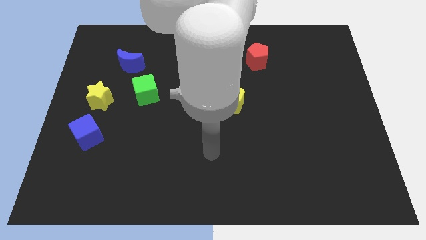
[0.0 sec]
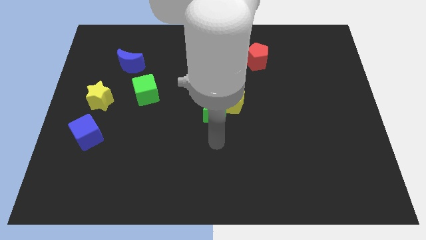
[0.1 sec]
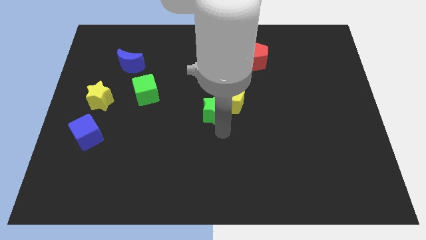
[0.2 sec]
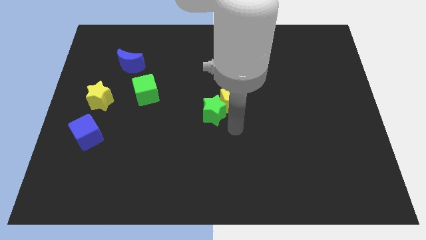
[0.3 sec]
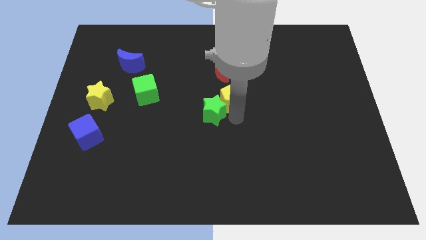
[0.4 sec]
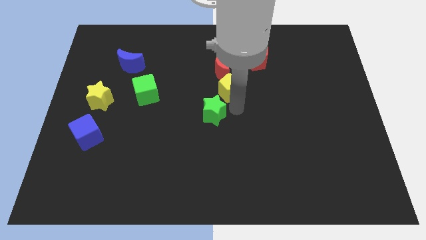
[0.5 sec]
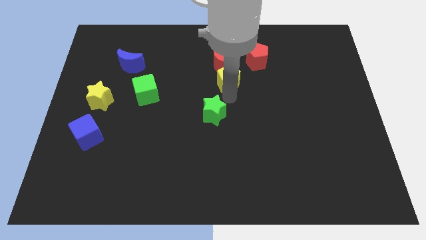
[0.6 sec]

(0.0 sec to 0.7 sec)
separate the green star from the yellow pentagon

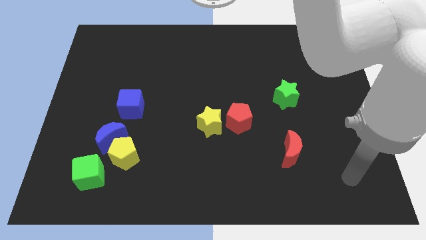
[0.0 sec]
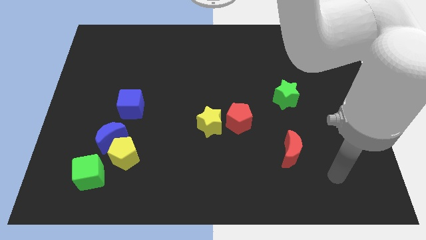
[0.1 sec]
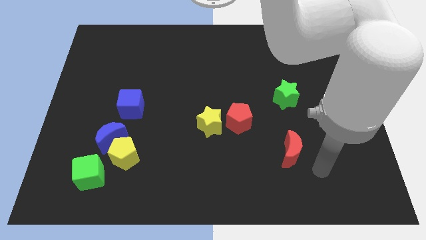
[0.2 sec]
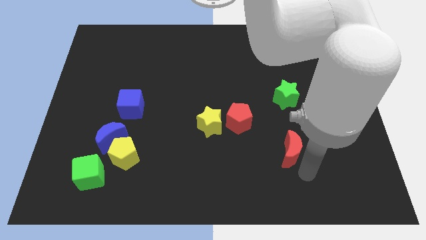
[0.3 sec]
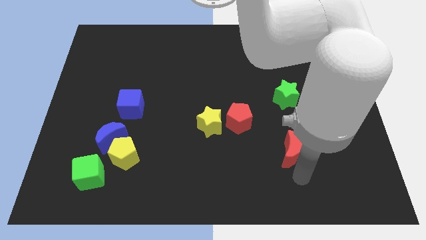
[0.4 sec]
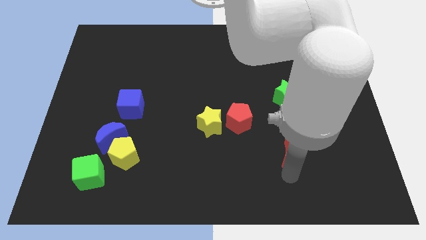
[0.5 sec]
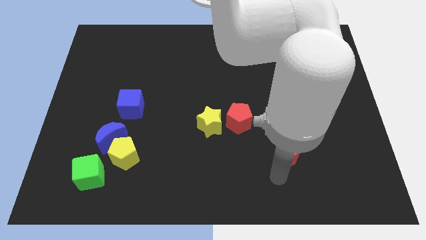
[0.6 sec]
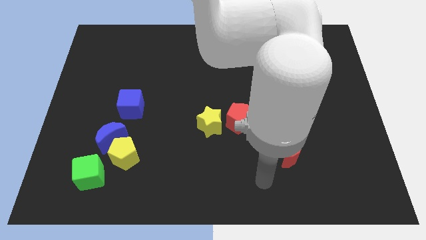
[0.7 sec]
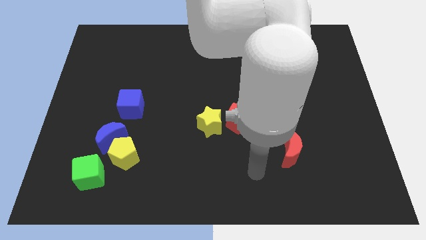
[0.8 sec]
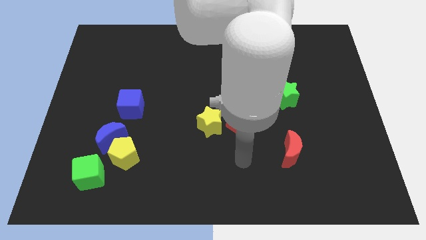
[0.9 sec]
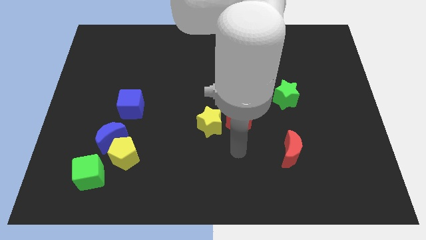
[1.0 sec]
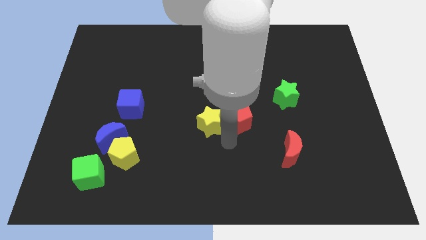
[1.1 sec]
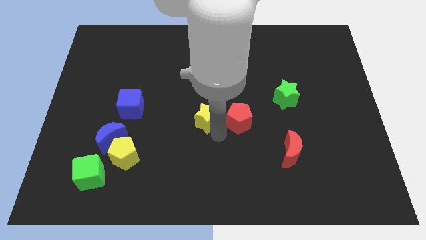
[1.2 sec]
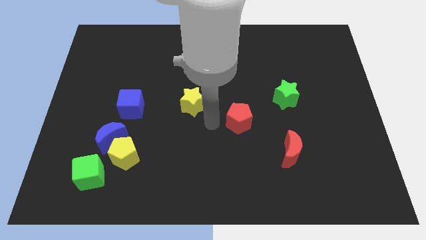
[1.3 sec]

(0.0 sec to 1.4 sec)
move the red pentagon away from the yellow star

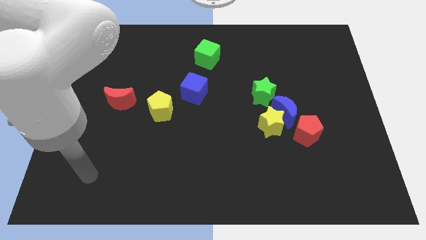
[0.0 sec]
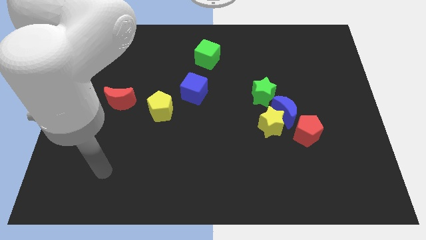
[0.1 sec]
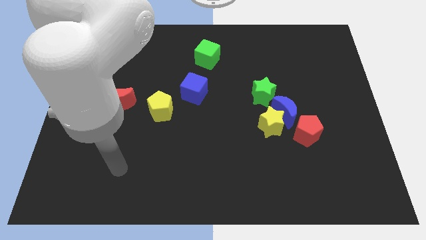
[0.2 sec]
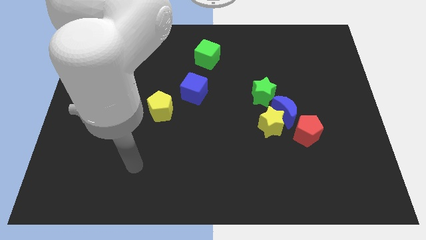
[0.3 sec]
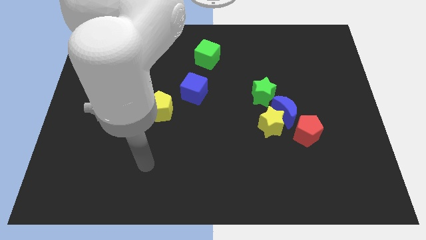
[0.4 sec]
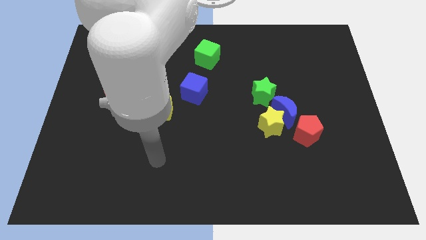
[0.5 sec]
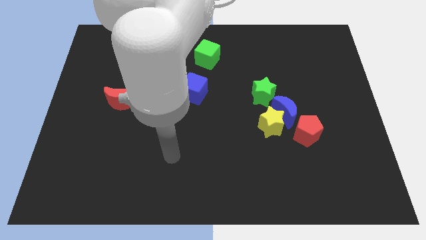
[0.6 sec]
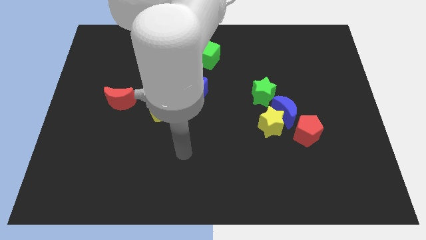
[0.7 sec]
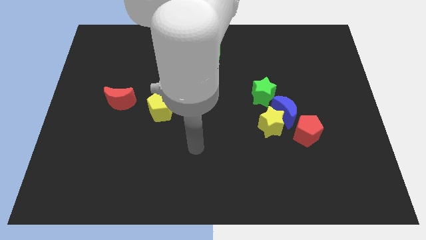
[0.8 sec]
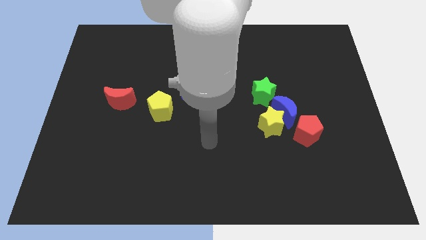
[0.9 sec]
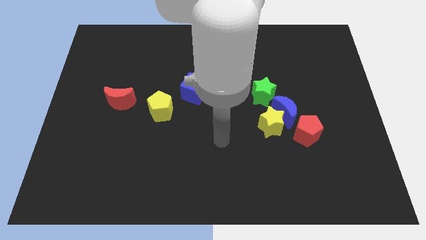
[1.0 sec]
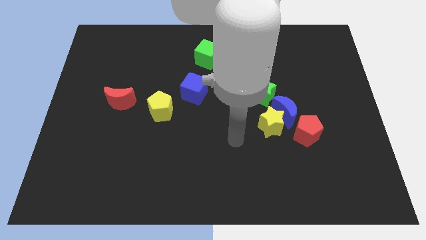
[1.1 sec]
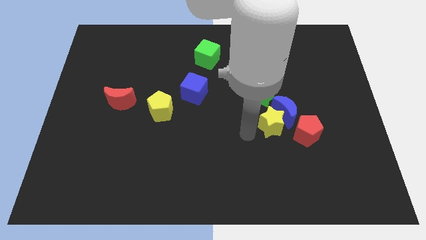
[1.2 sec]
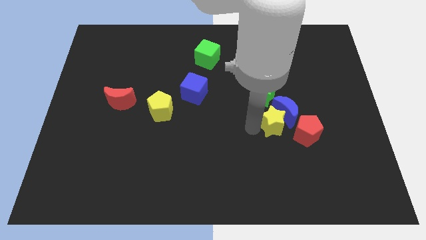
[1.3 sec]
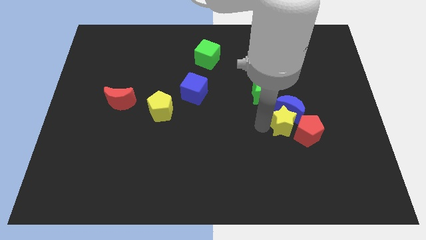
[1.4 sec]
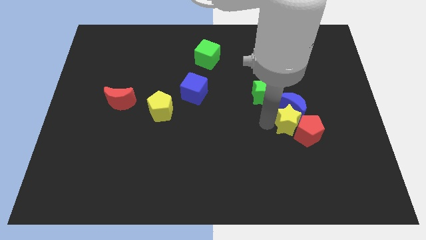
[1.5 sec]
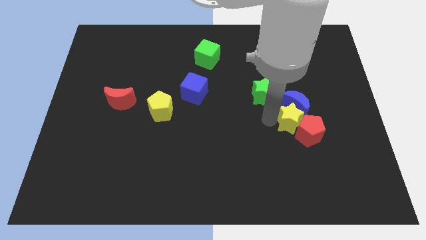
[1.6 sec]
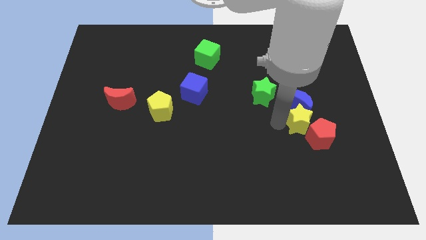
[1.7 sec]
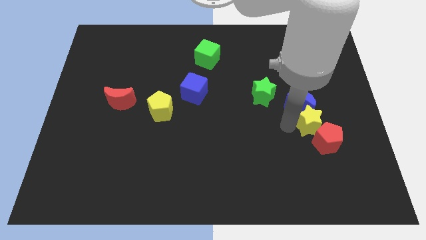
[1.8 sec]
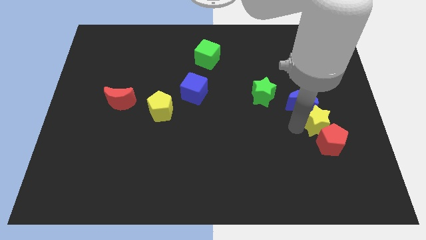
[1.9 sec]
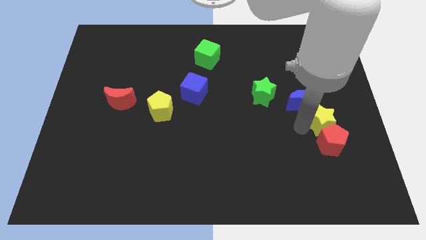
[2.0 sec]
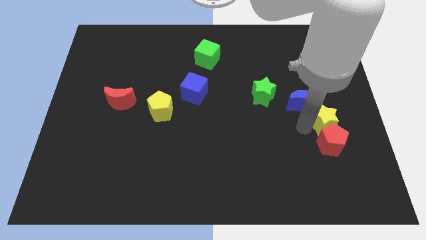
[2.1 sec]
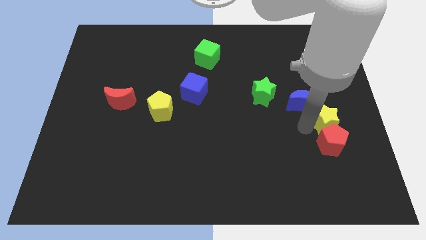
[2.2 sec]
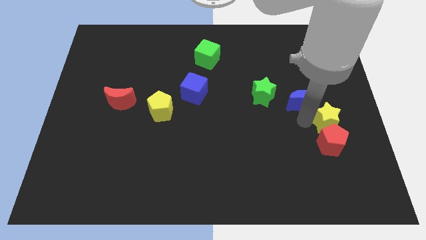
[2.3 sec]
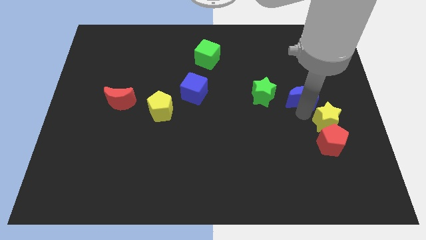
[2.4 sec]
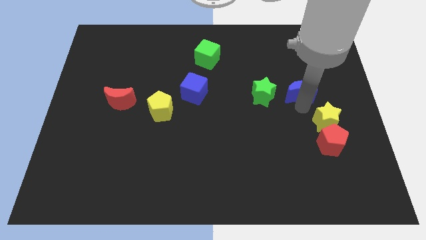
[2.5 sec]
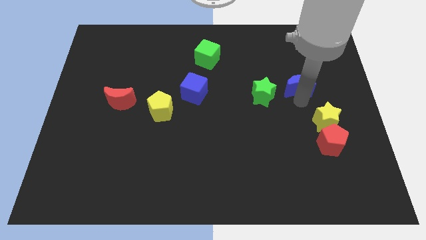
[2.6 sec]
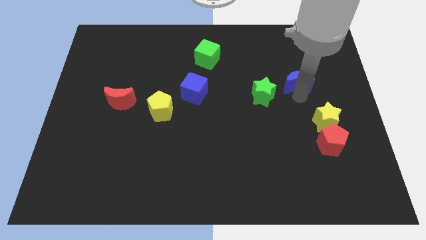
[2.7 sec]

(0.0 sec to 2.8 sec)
pull the blue moon apart from the clump

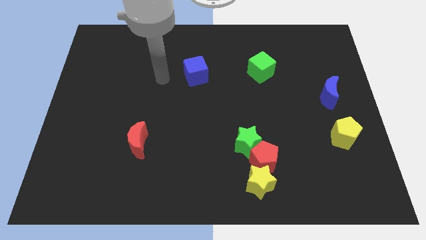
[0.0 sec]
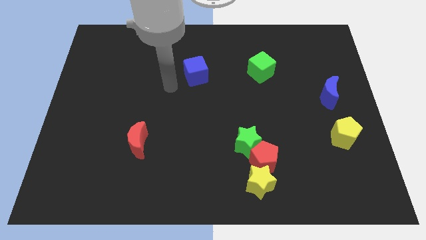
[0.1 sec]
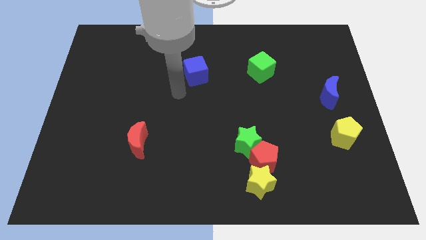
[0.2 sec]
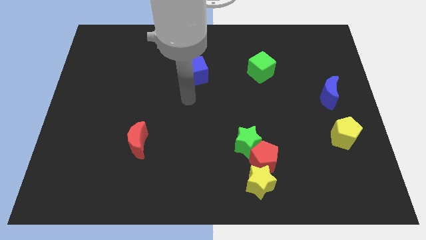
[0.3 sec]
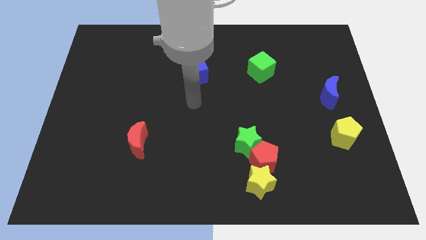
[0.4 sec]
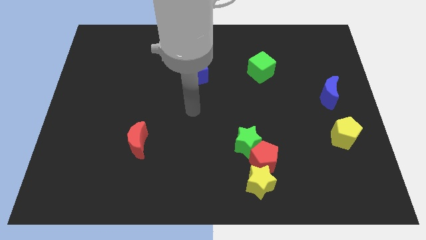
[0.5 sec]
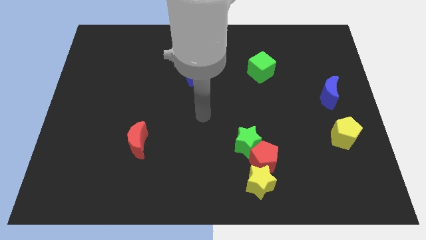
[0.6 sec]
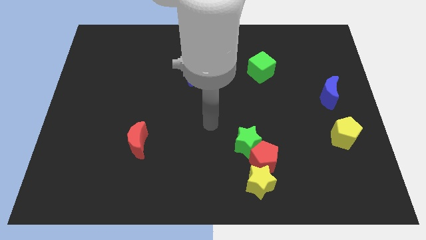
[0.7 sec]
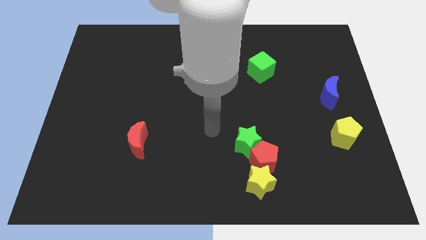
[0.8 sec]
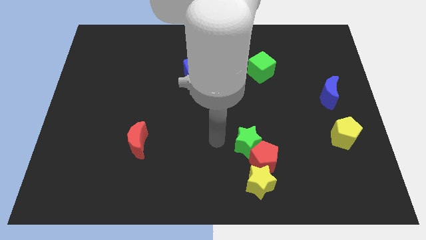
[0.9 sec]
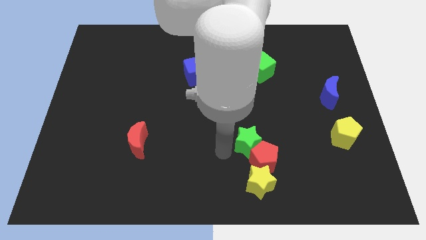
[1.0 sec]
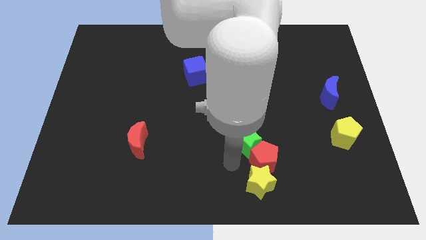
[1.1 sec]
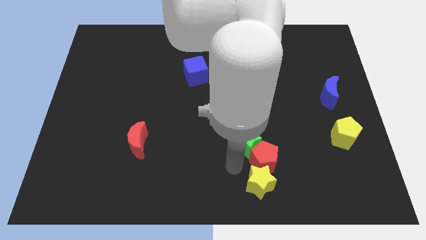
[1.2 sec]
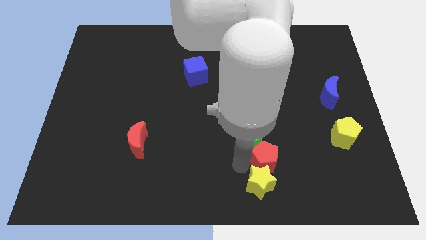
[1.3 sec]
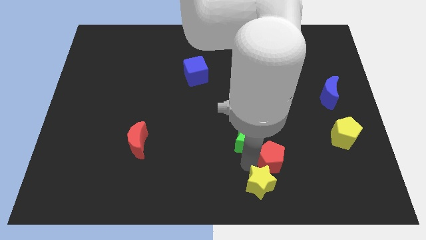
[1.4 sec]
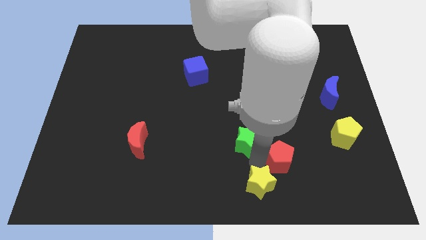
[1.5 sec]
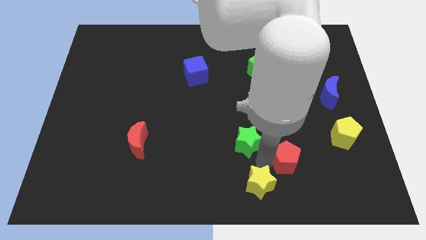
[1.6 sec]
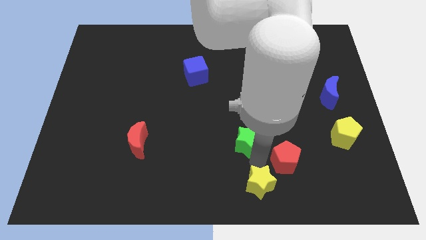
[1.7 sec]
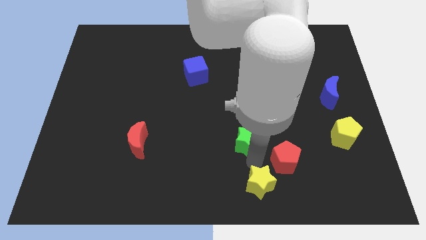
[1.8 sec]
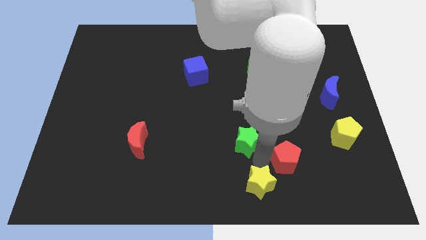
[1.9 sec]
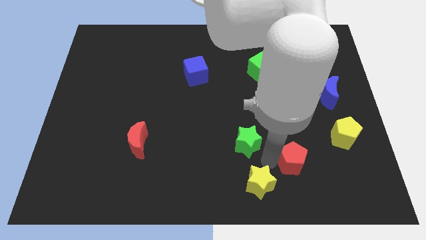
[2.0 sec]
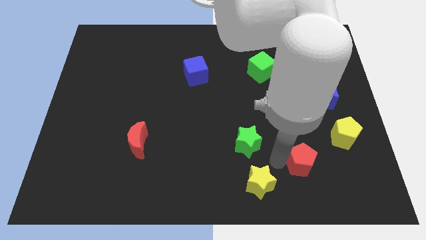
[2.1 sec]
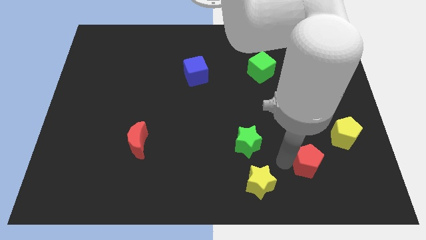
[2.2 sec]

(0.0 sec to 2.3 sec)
move the red pentagon away from the yellow star and green star

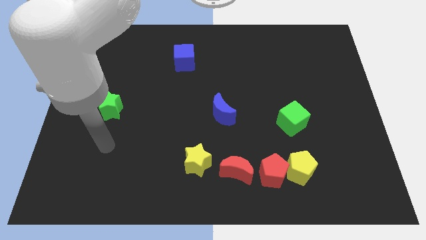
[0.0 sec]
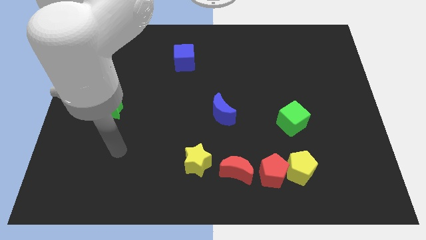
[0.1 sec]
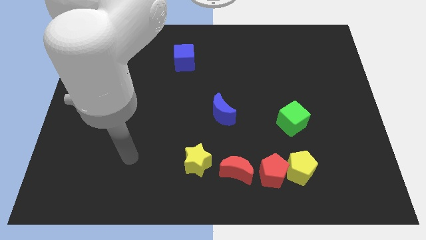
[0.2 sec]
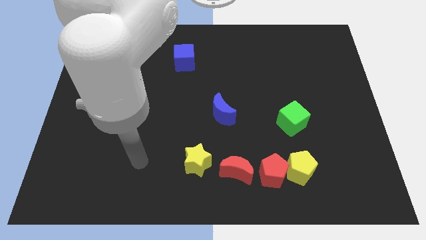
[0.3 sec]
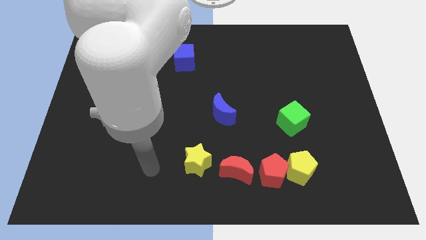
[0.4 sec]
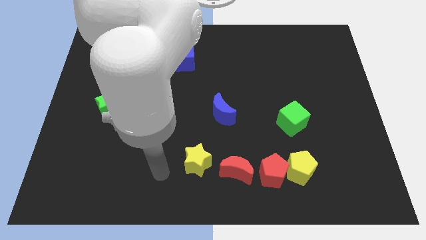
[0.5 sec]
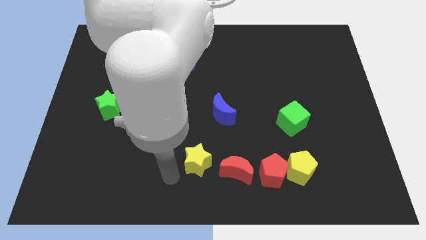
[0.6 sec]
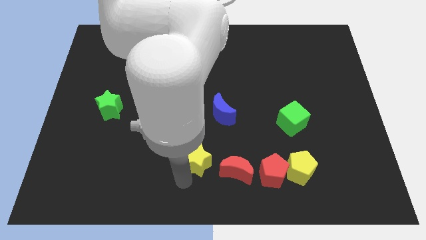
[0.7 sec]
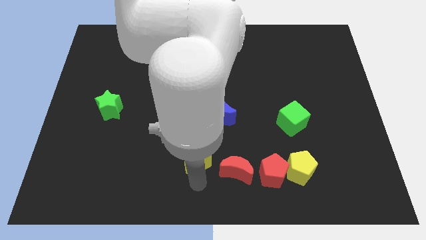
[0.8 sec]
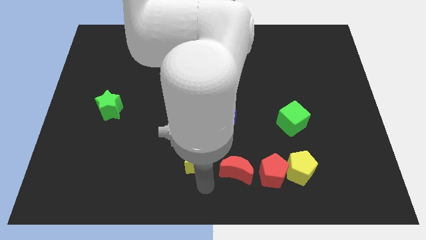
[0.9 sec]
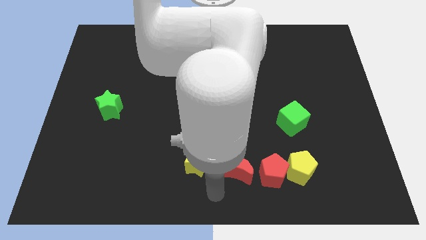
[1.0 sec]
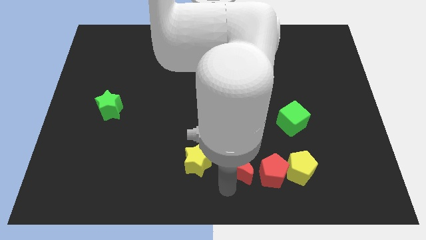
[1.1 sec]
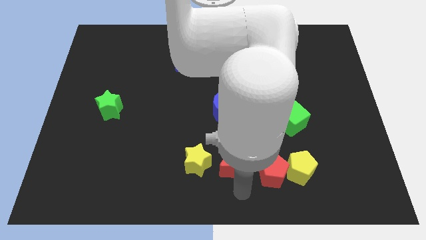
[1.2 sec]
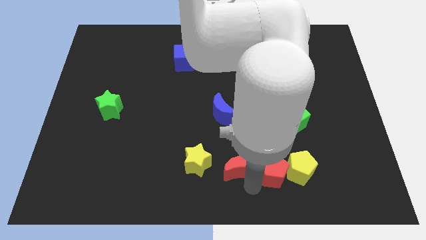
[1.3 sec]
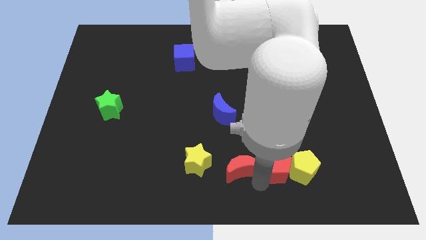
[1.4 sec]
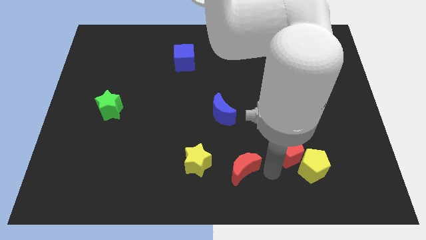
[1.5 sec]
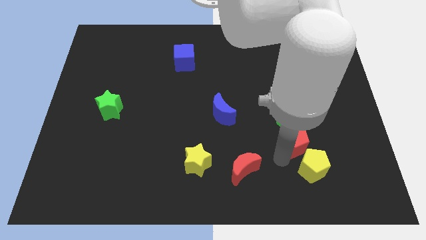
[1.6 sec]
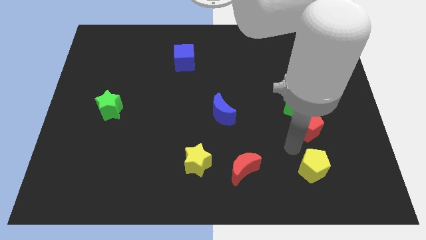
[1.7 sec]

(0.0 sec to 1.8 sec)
move the yellow pentagon away from the red pentagon

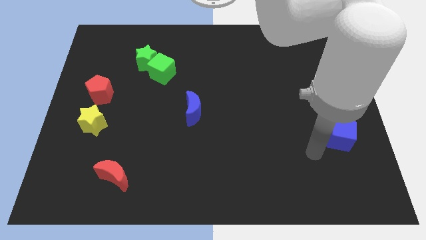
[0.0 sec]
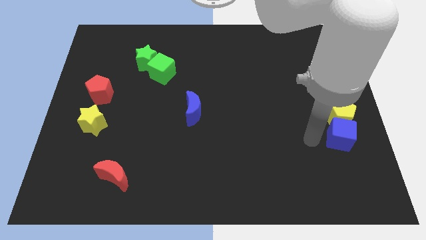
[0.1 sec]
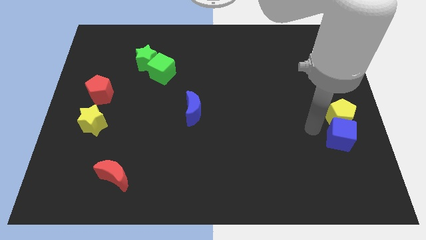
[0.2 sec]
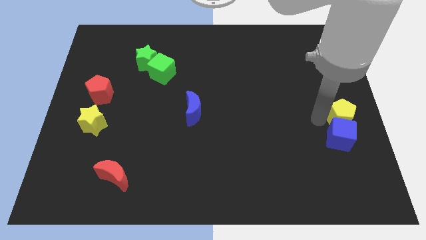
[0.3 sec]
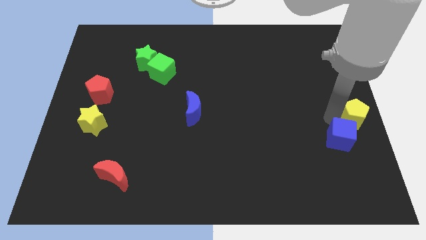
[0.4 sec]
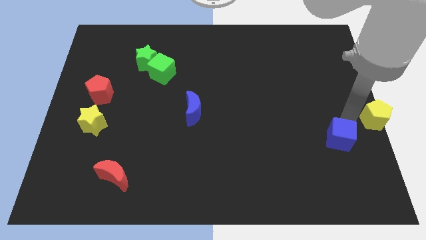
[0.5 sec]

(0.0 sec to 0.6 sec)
separate the blue cube from the yellow pentagon
